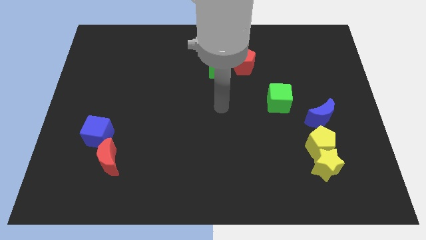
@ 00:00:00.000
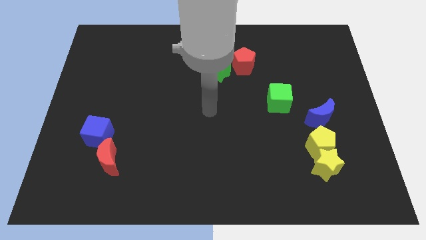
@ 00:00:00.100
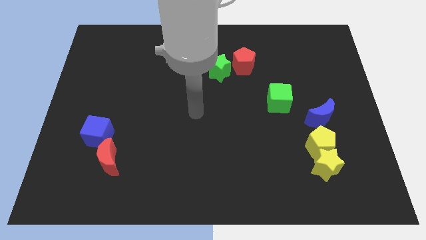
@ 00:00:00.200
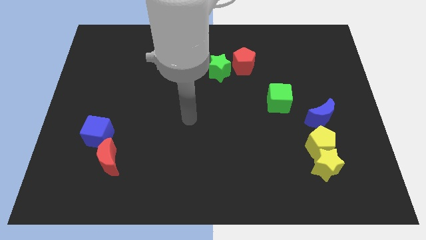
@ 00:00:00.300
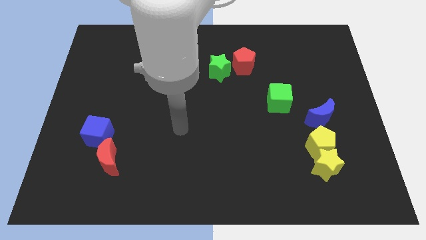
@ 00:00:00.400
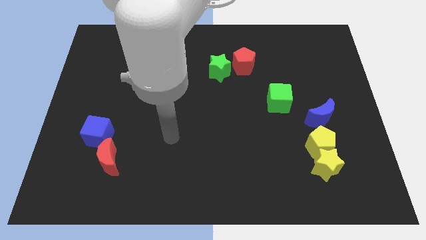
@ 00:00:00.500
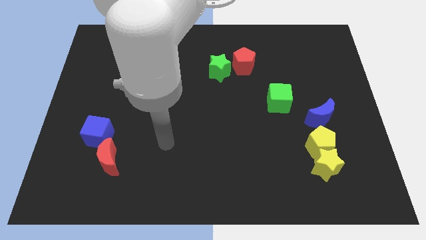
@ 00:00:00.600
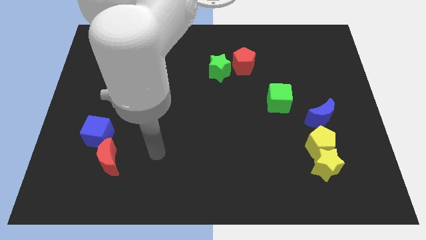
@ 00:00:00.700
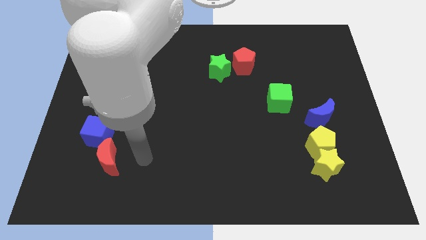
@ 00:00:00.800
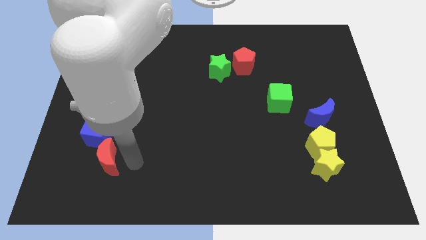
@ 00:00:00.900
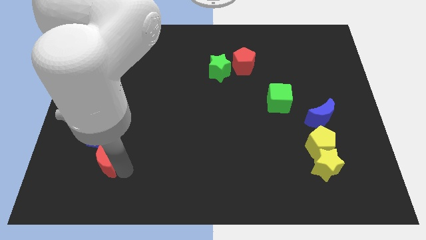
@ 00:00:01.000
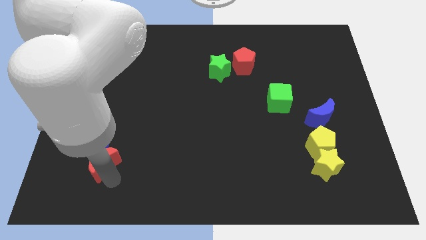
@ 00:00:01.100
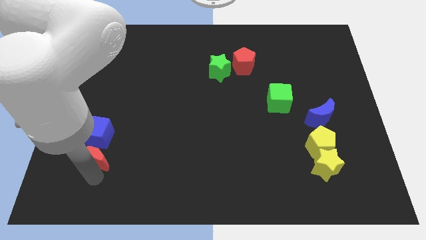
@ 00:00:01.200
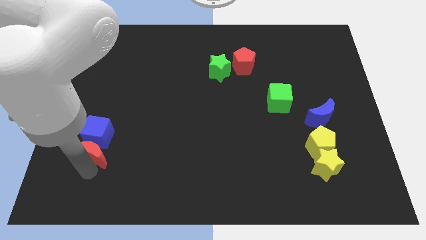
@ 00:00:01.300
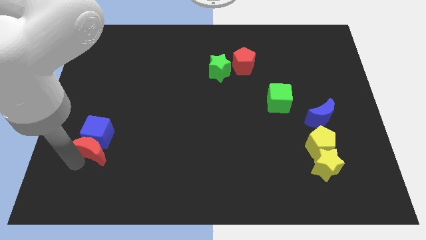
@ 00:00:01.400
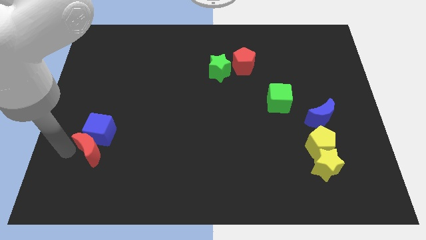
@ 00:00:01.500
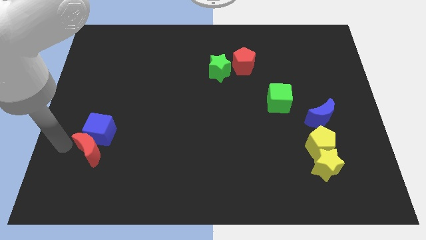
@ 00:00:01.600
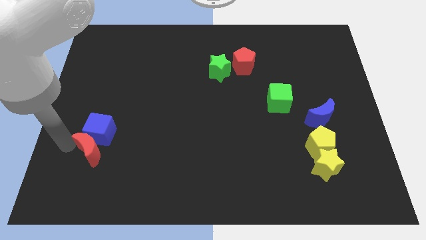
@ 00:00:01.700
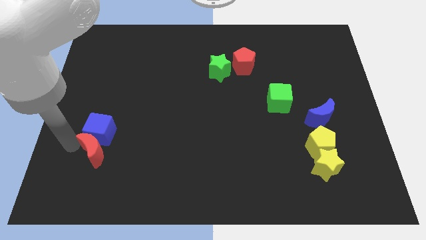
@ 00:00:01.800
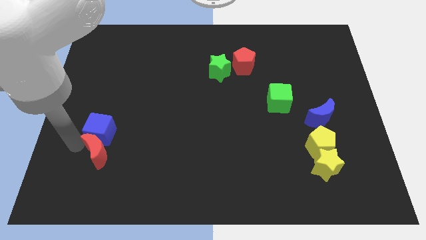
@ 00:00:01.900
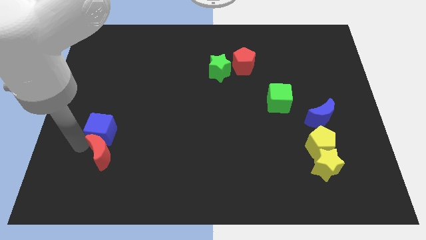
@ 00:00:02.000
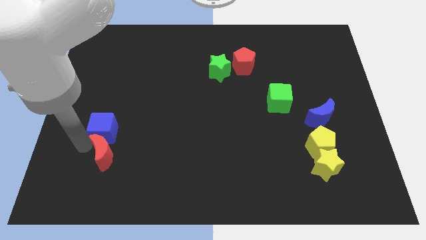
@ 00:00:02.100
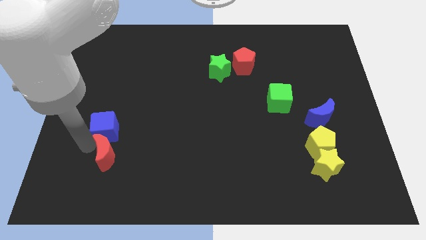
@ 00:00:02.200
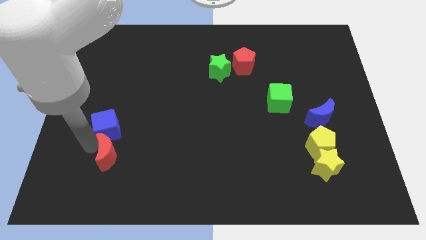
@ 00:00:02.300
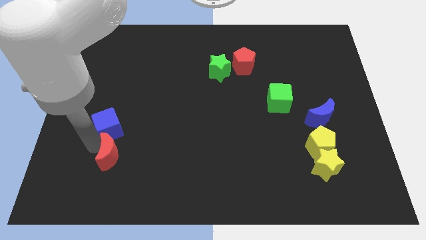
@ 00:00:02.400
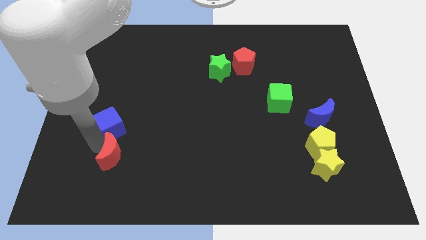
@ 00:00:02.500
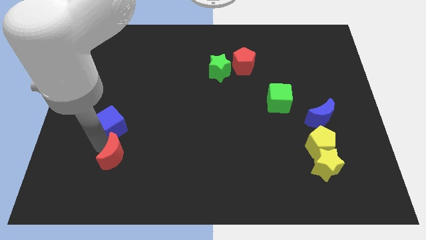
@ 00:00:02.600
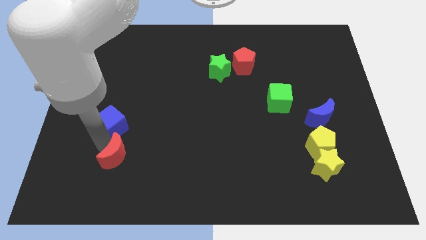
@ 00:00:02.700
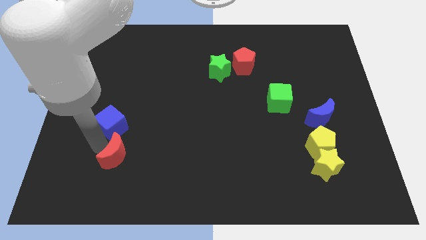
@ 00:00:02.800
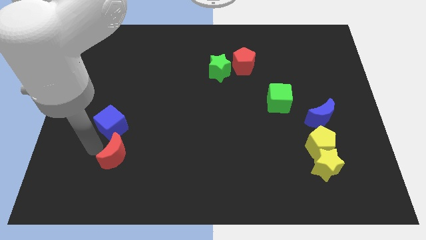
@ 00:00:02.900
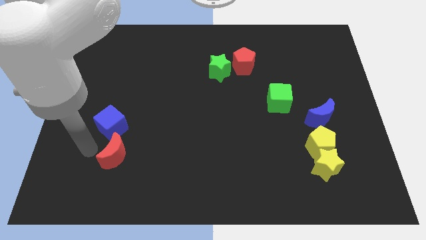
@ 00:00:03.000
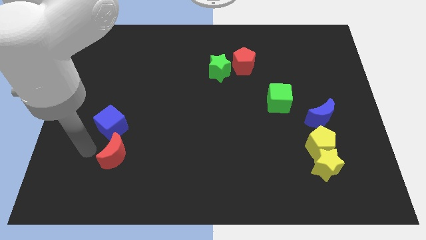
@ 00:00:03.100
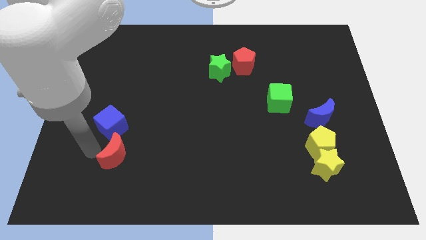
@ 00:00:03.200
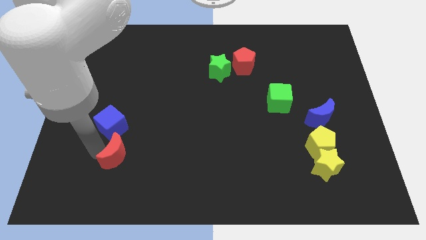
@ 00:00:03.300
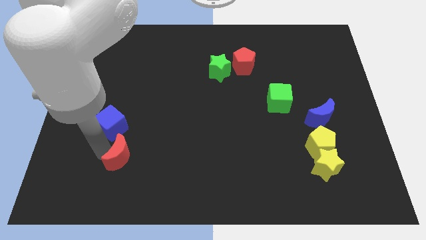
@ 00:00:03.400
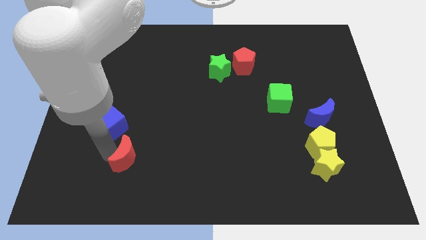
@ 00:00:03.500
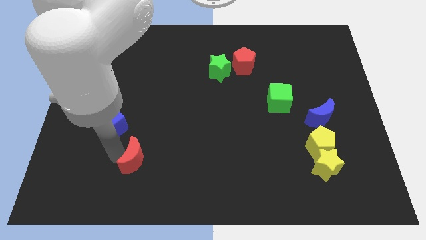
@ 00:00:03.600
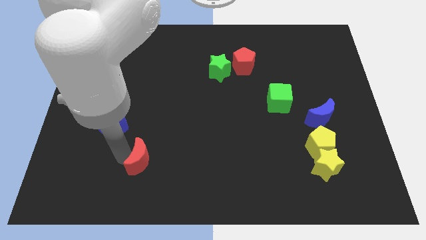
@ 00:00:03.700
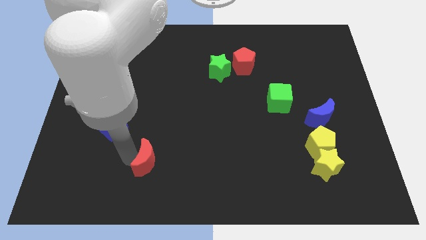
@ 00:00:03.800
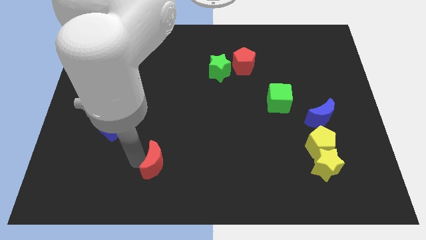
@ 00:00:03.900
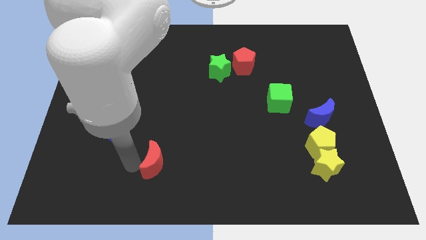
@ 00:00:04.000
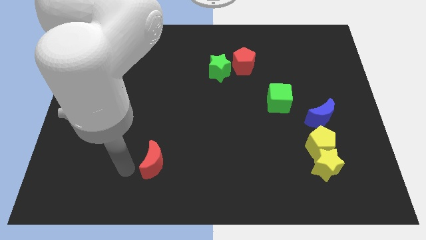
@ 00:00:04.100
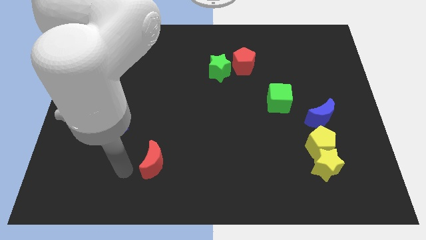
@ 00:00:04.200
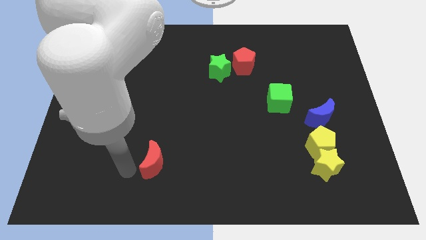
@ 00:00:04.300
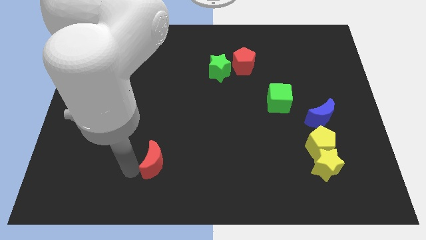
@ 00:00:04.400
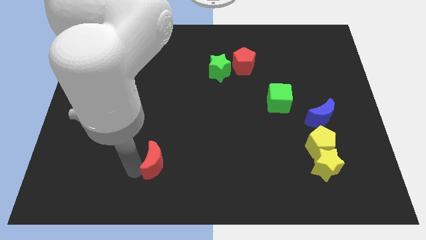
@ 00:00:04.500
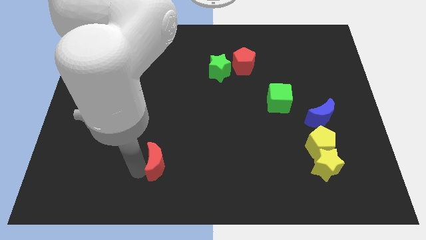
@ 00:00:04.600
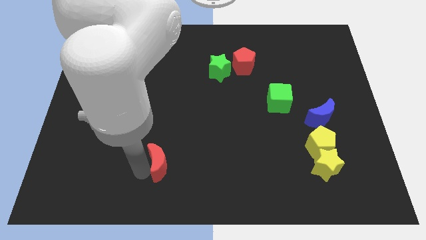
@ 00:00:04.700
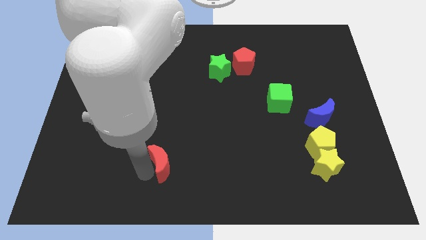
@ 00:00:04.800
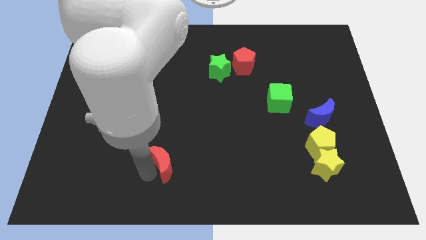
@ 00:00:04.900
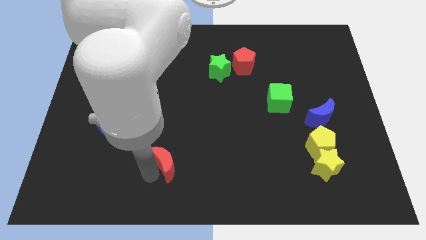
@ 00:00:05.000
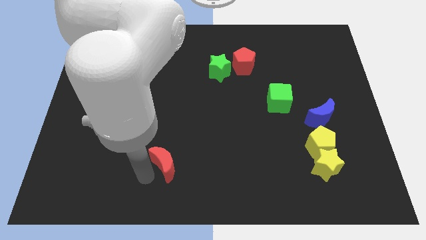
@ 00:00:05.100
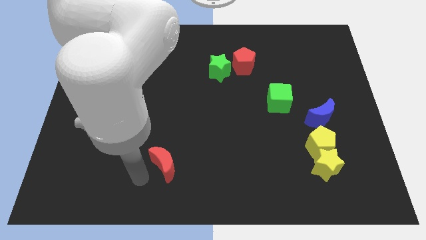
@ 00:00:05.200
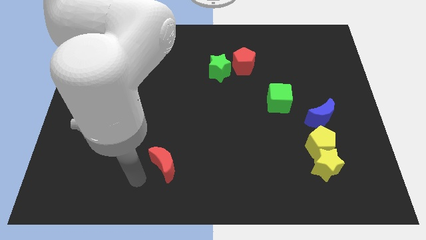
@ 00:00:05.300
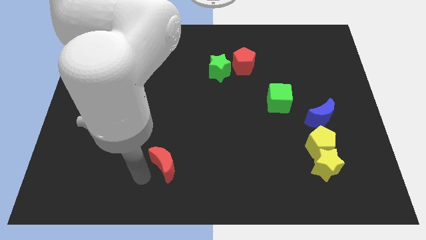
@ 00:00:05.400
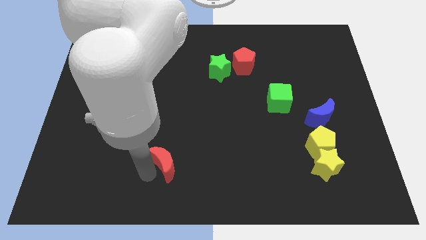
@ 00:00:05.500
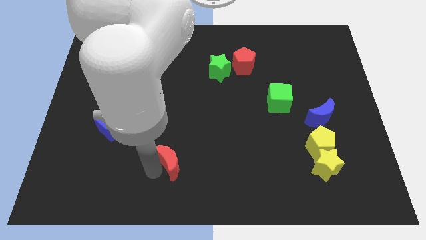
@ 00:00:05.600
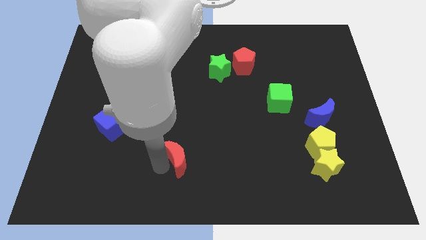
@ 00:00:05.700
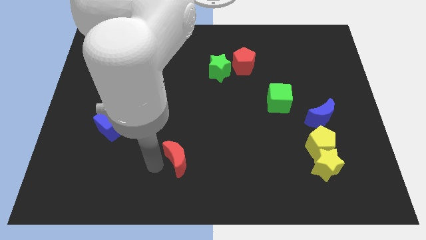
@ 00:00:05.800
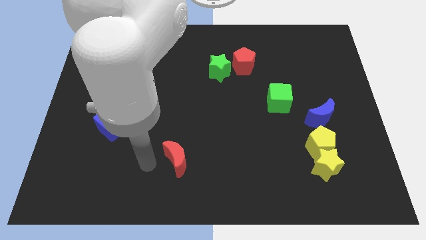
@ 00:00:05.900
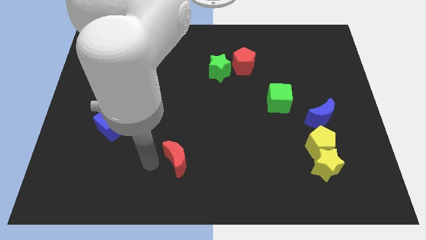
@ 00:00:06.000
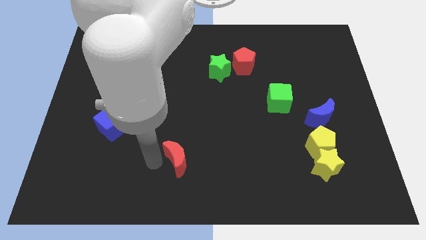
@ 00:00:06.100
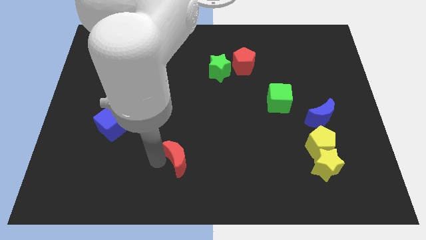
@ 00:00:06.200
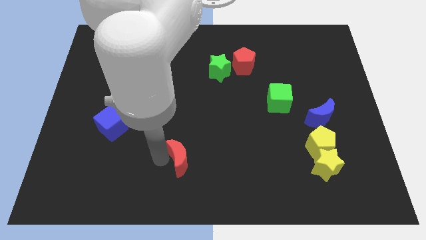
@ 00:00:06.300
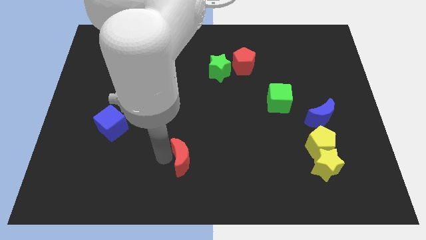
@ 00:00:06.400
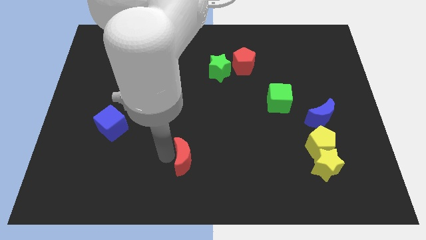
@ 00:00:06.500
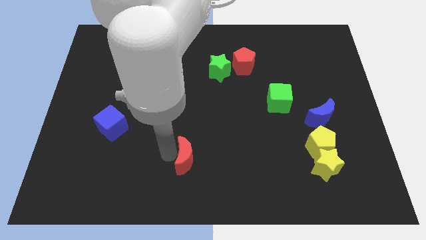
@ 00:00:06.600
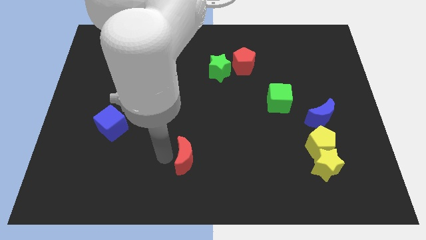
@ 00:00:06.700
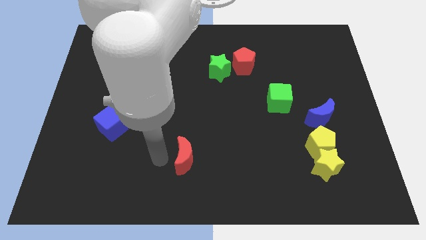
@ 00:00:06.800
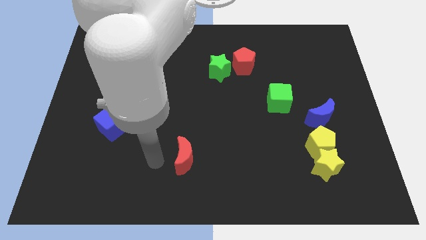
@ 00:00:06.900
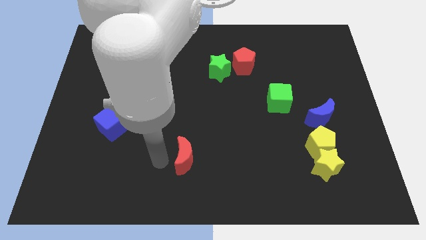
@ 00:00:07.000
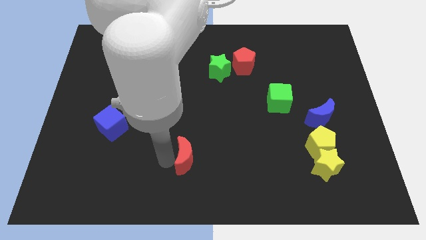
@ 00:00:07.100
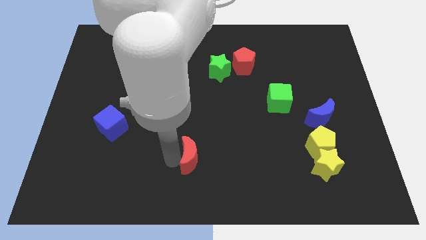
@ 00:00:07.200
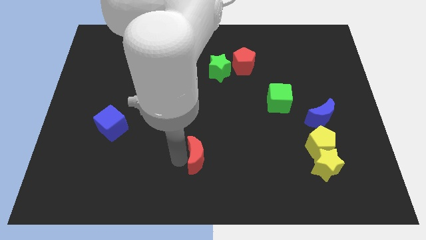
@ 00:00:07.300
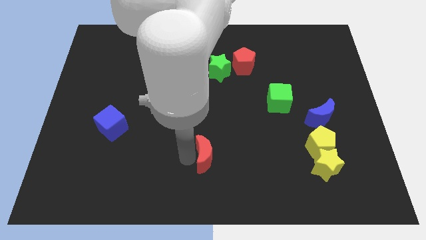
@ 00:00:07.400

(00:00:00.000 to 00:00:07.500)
move the red moon to the right

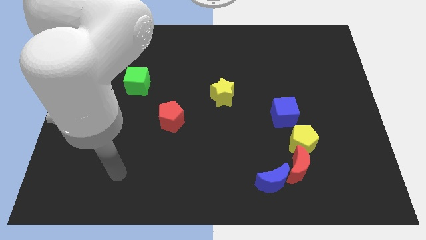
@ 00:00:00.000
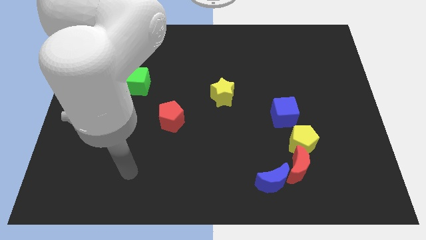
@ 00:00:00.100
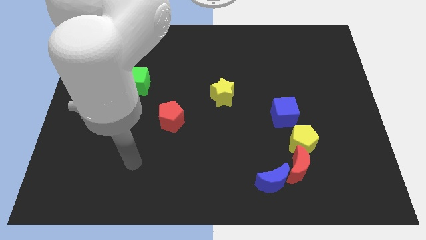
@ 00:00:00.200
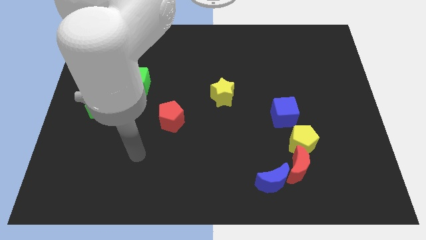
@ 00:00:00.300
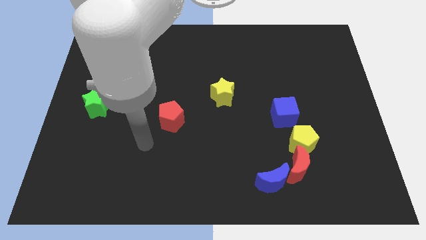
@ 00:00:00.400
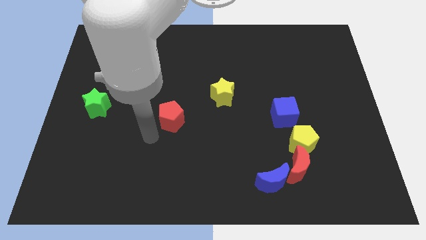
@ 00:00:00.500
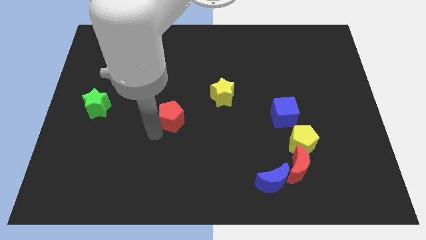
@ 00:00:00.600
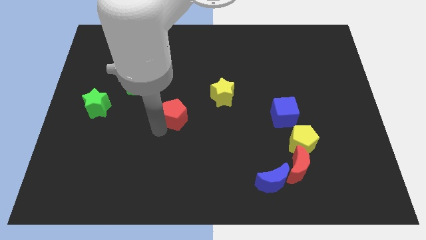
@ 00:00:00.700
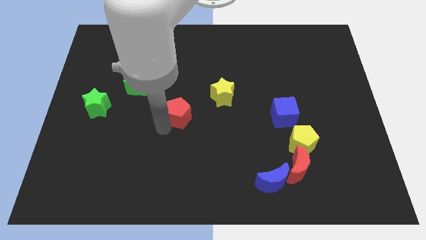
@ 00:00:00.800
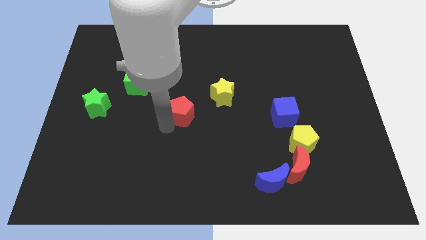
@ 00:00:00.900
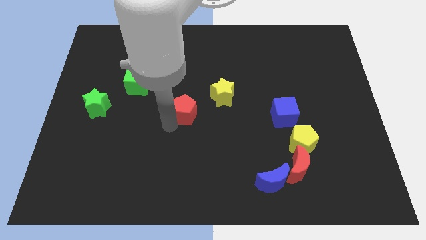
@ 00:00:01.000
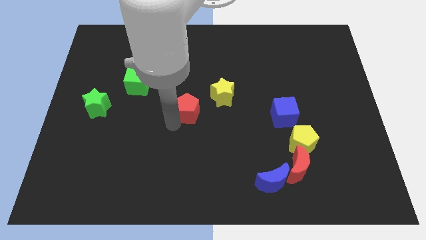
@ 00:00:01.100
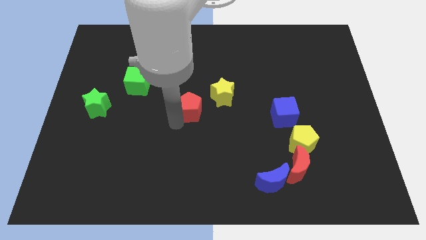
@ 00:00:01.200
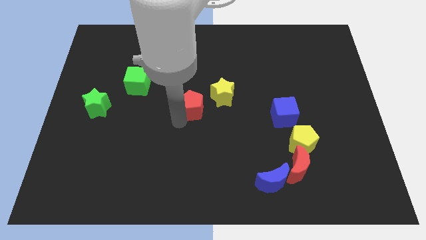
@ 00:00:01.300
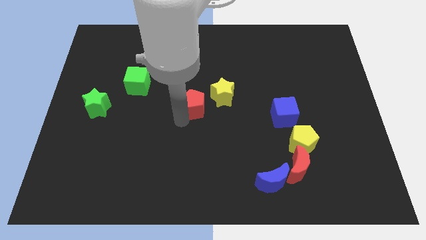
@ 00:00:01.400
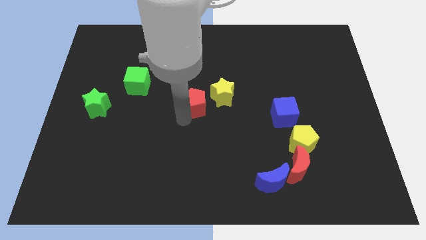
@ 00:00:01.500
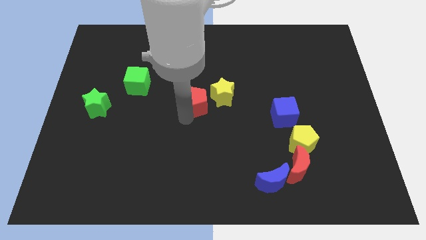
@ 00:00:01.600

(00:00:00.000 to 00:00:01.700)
slightly move the red pentagon up and right
